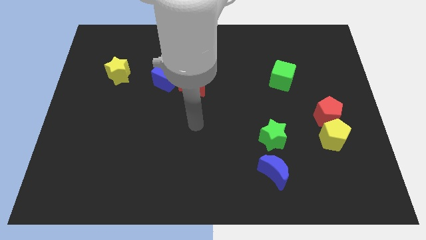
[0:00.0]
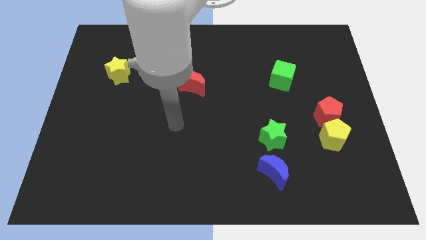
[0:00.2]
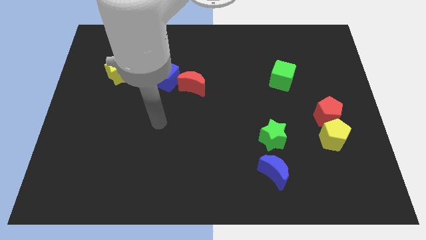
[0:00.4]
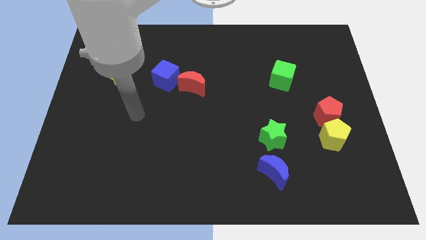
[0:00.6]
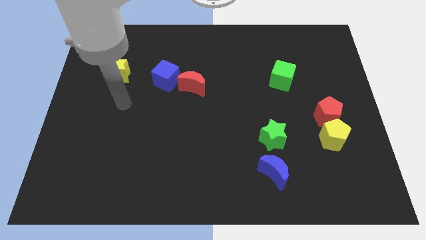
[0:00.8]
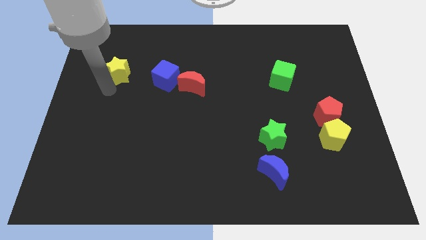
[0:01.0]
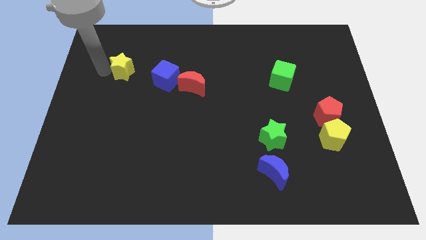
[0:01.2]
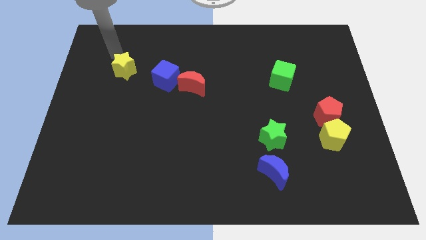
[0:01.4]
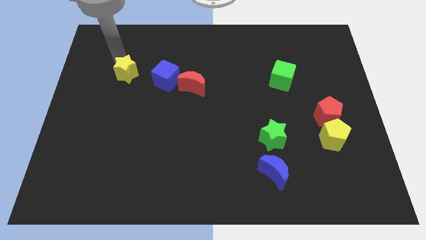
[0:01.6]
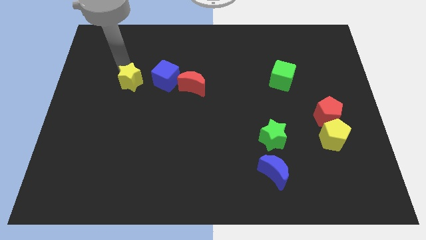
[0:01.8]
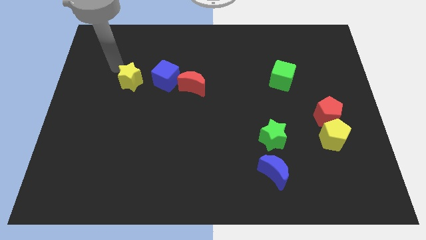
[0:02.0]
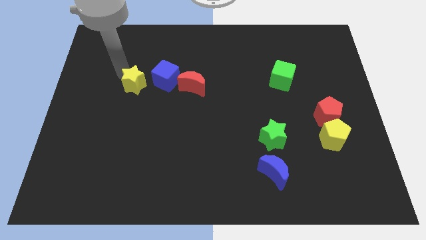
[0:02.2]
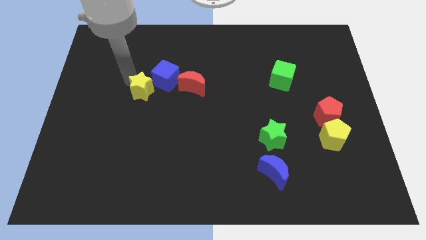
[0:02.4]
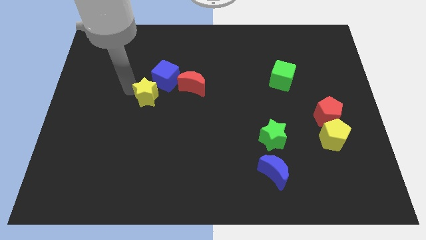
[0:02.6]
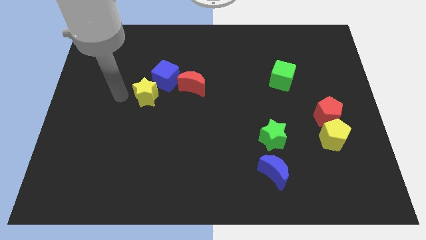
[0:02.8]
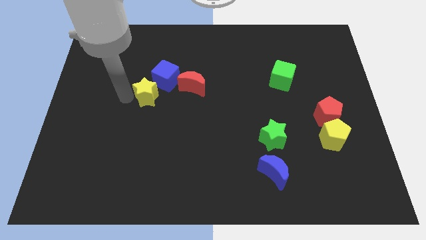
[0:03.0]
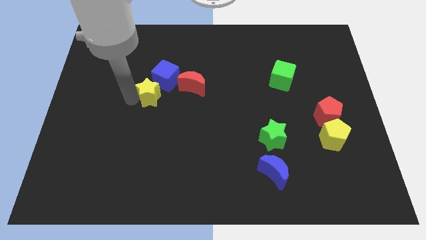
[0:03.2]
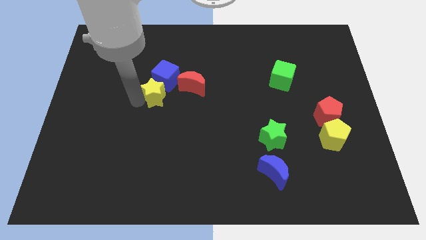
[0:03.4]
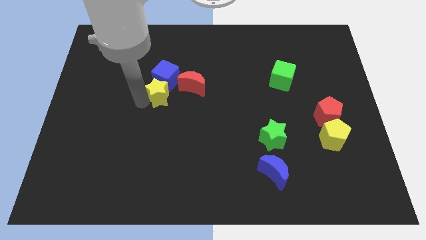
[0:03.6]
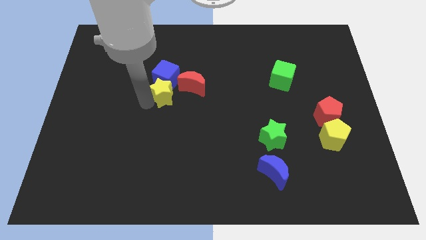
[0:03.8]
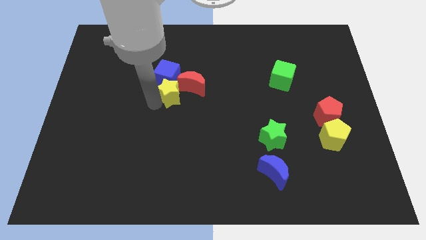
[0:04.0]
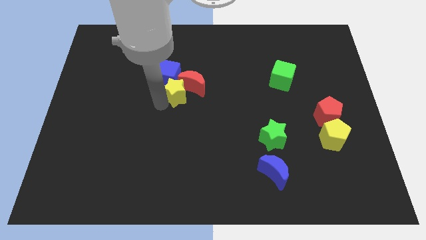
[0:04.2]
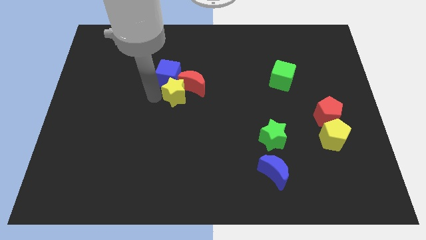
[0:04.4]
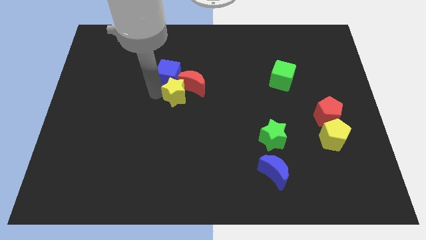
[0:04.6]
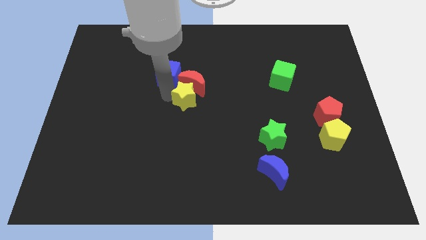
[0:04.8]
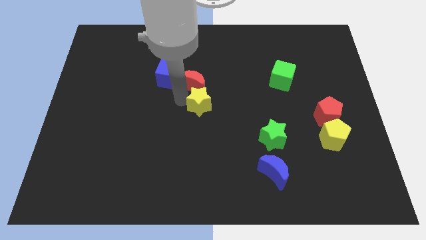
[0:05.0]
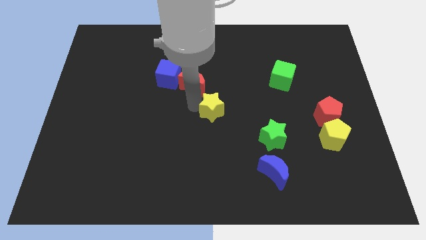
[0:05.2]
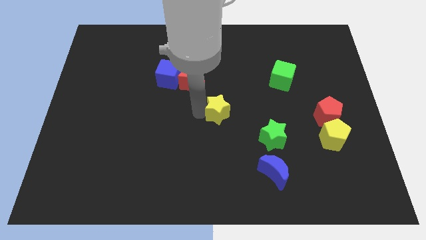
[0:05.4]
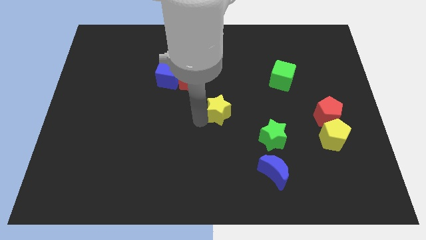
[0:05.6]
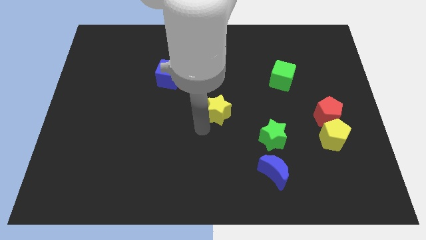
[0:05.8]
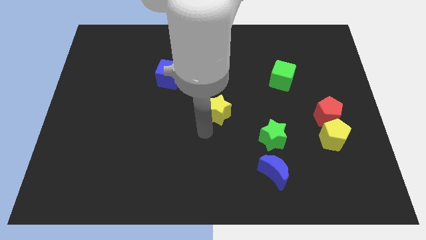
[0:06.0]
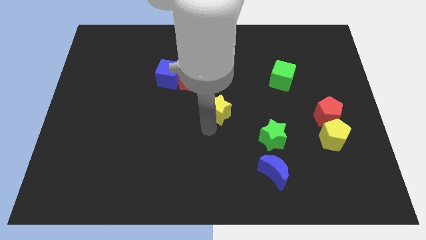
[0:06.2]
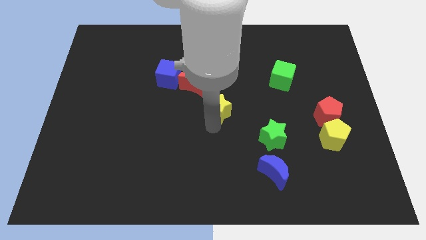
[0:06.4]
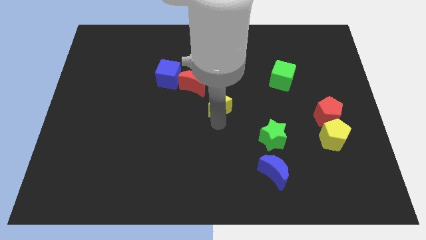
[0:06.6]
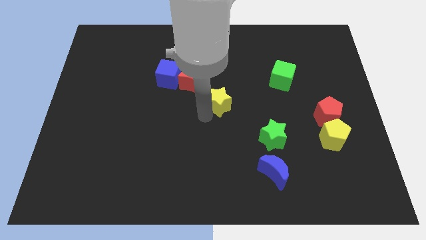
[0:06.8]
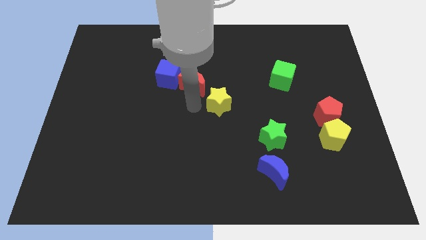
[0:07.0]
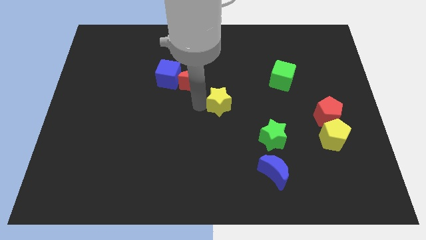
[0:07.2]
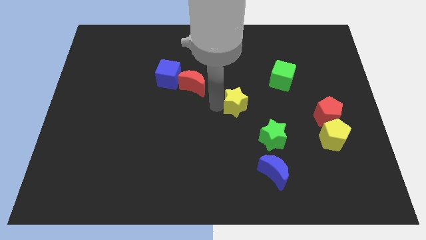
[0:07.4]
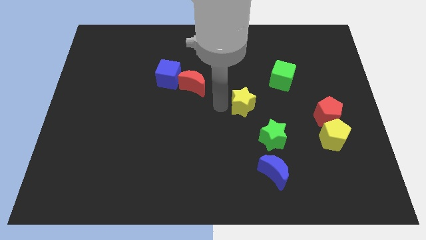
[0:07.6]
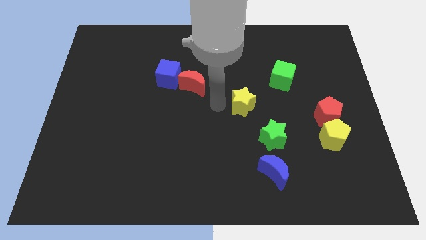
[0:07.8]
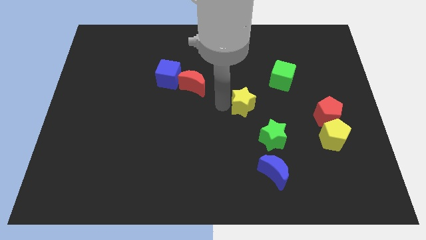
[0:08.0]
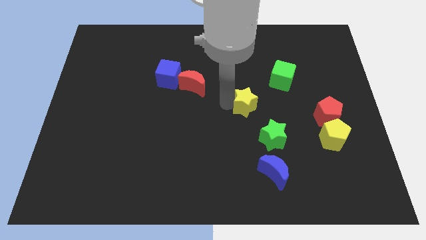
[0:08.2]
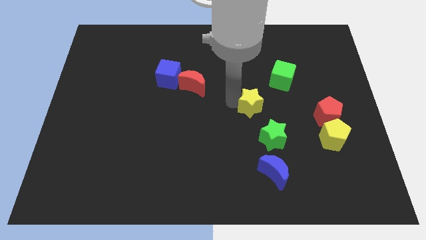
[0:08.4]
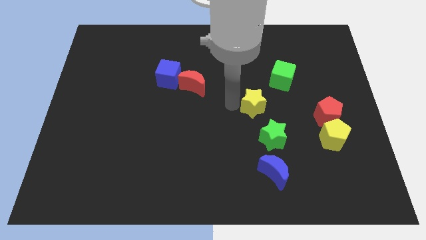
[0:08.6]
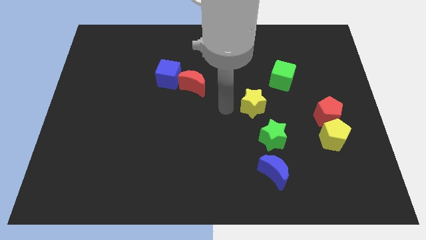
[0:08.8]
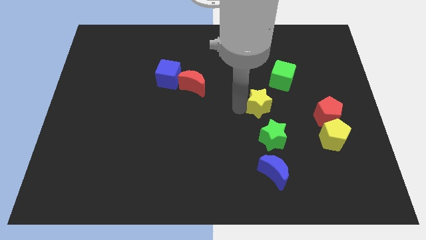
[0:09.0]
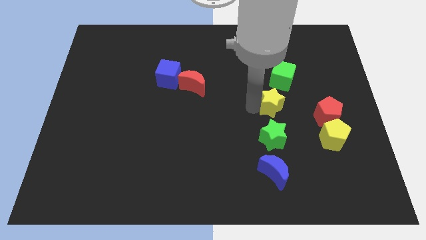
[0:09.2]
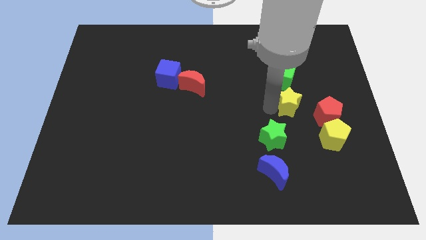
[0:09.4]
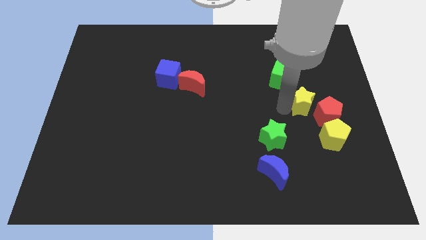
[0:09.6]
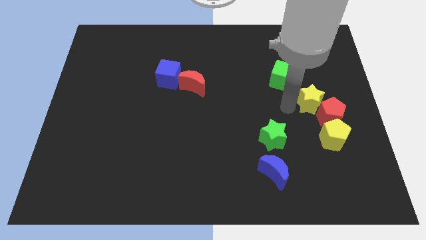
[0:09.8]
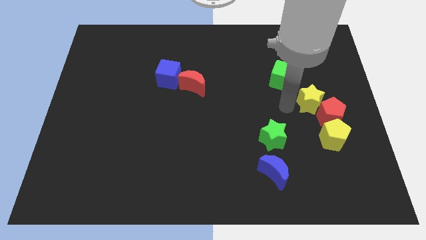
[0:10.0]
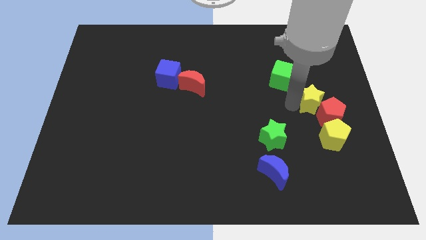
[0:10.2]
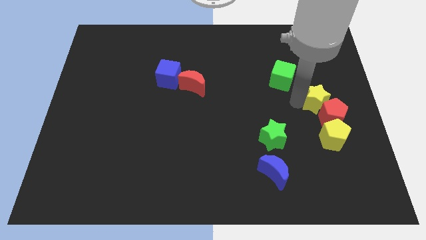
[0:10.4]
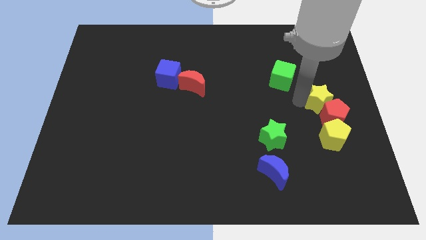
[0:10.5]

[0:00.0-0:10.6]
move the yellow star to the right side

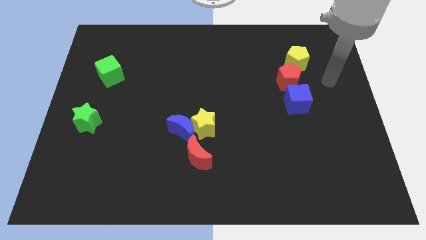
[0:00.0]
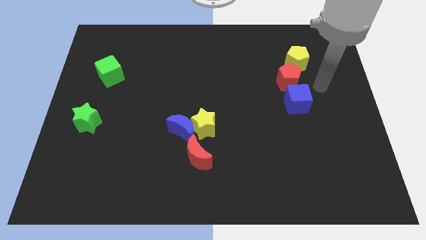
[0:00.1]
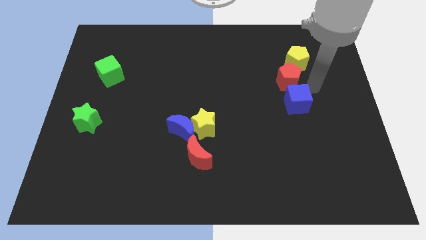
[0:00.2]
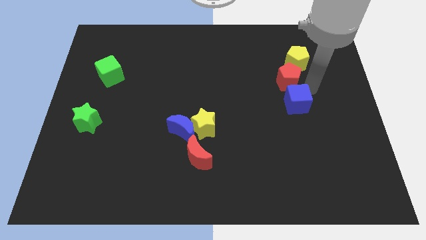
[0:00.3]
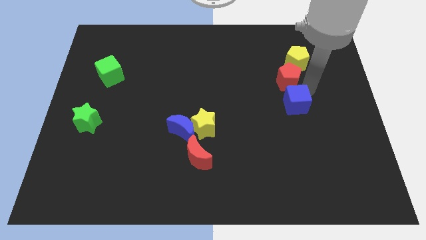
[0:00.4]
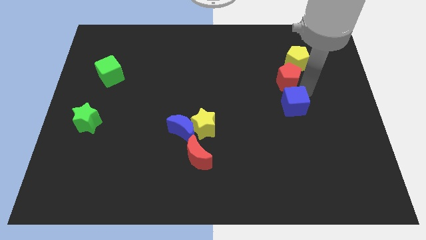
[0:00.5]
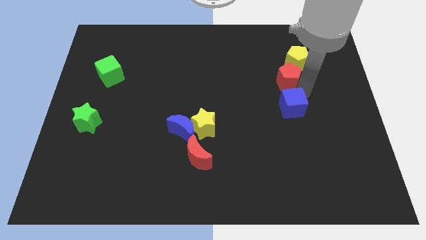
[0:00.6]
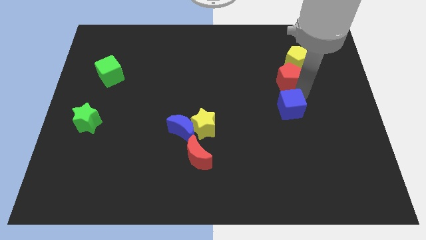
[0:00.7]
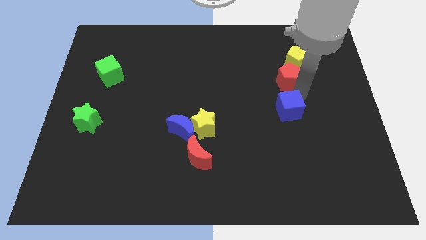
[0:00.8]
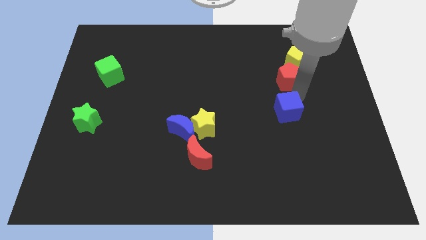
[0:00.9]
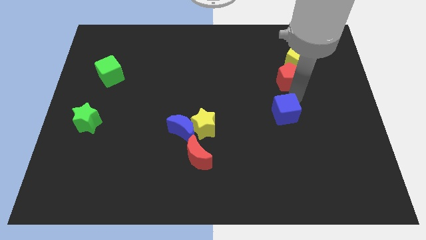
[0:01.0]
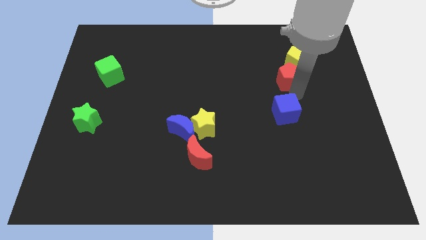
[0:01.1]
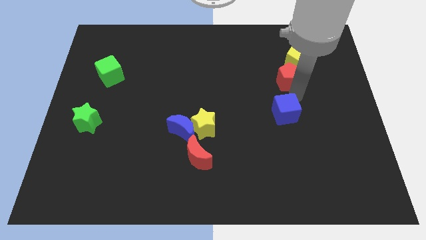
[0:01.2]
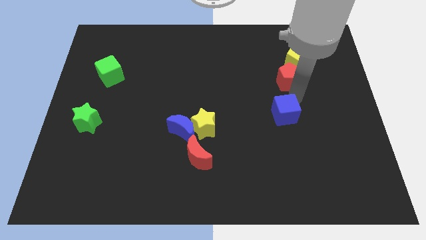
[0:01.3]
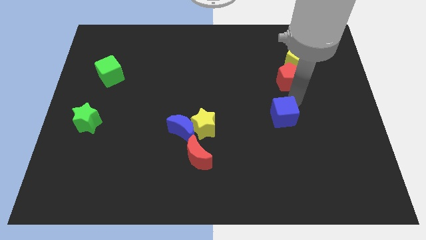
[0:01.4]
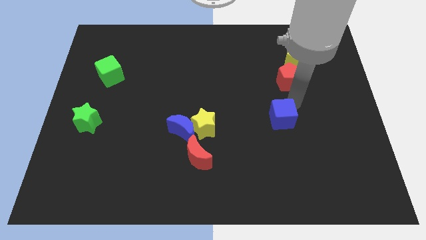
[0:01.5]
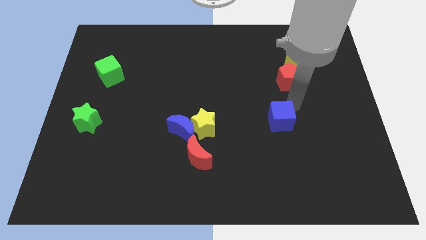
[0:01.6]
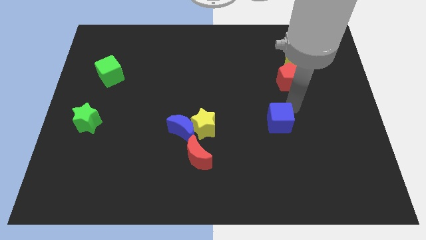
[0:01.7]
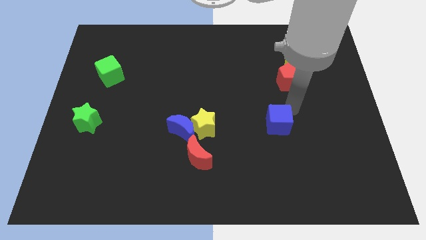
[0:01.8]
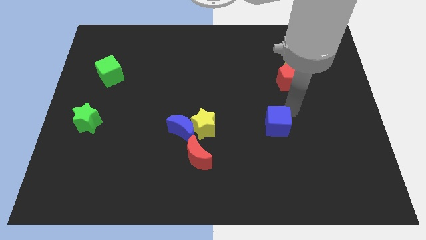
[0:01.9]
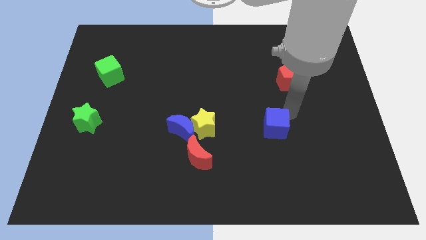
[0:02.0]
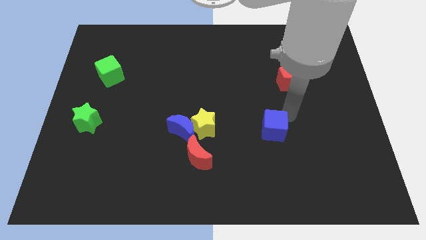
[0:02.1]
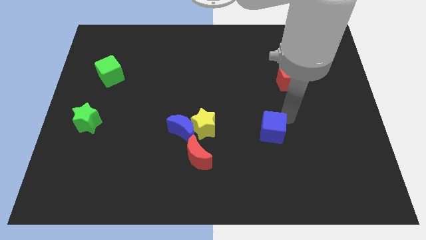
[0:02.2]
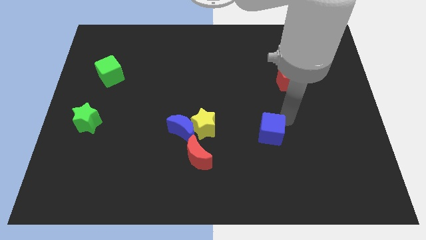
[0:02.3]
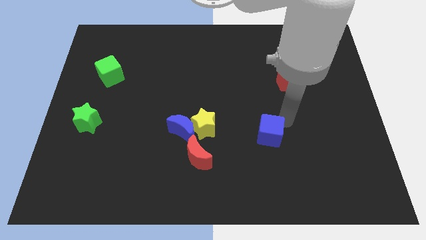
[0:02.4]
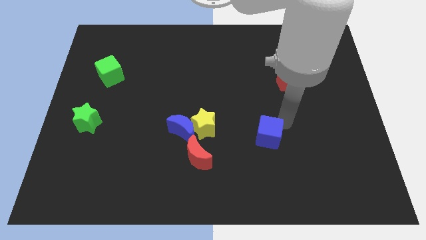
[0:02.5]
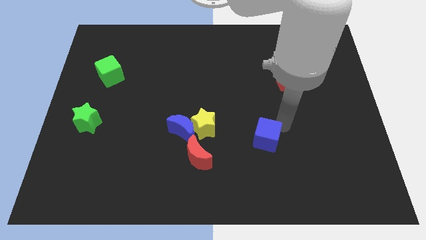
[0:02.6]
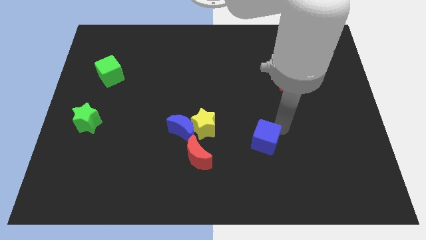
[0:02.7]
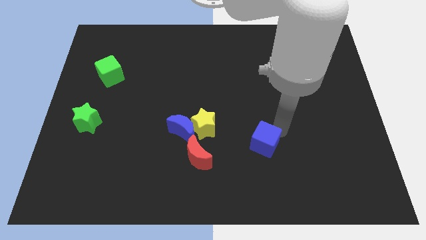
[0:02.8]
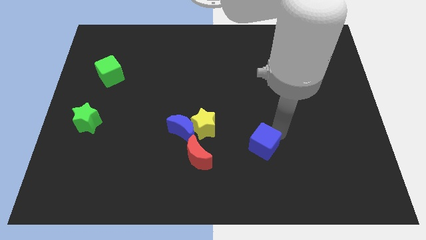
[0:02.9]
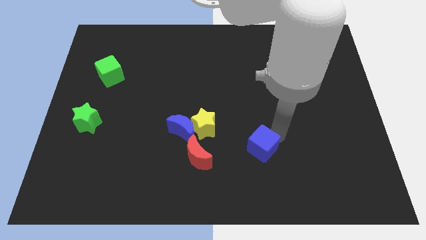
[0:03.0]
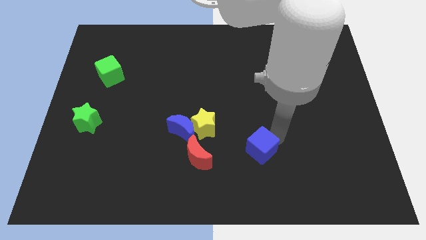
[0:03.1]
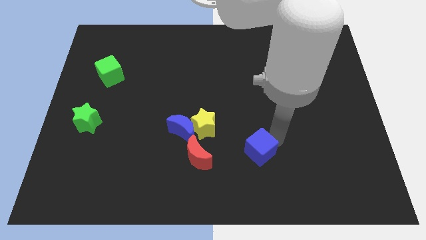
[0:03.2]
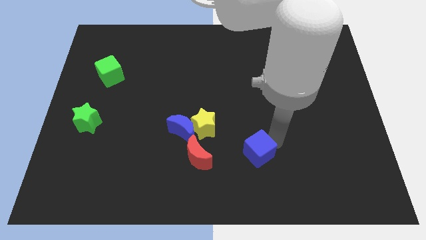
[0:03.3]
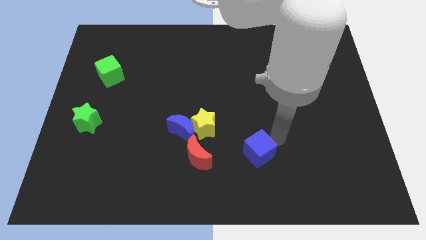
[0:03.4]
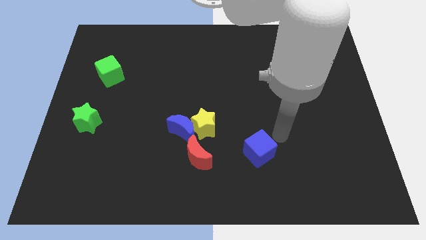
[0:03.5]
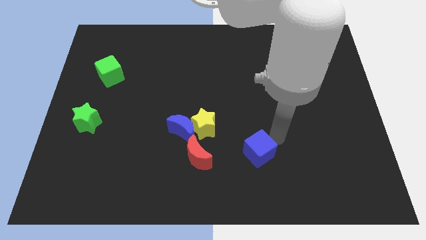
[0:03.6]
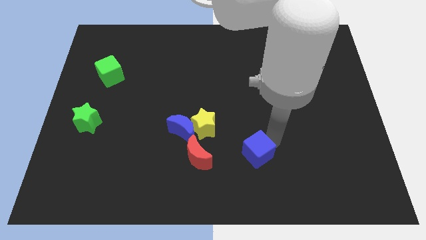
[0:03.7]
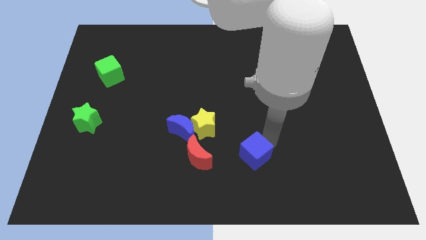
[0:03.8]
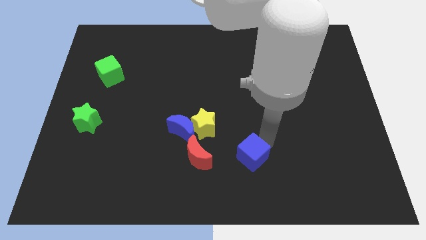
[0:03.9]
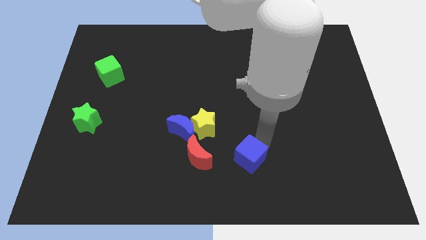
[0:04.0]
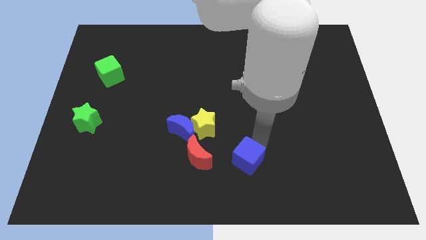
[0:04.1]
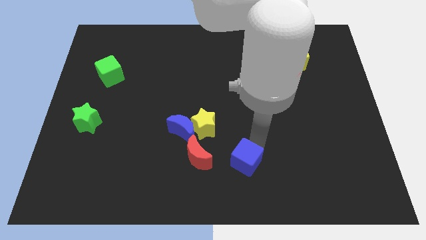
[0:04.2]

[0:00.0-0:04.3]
slide the blue cube to the bottom
